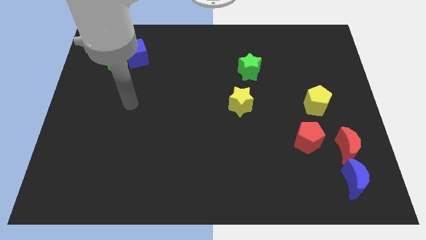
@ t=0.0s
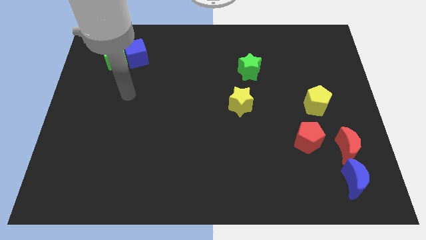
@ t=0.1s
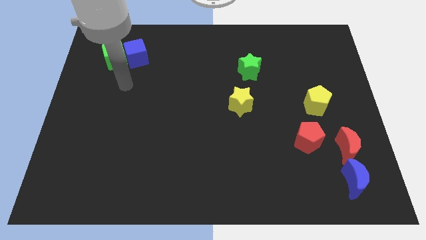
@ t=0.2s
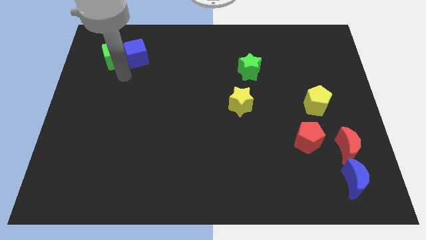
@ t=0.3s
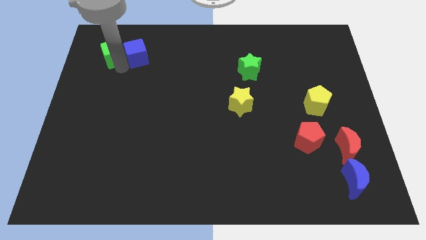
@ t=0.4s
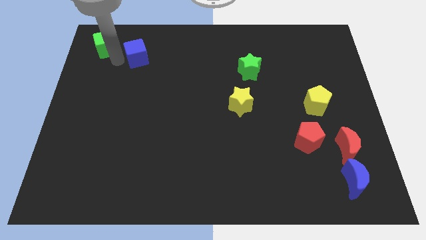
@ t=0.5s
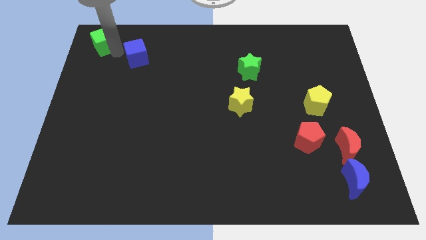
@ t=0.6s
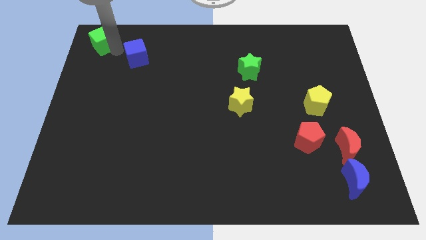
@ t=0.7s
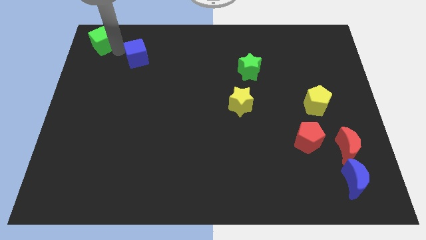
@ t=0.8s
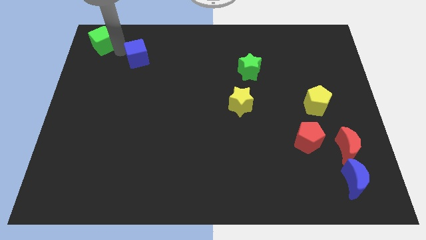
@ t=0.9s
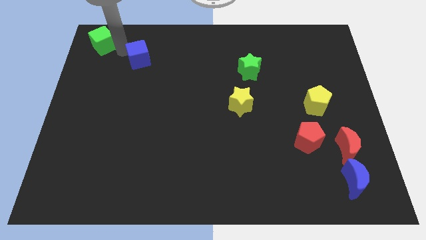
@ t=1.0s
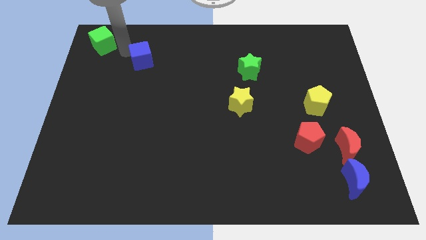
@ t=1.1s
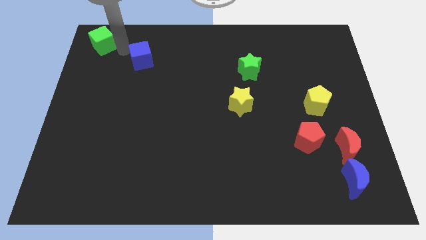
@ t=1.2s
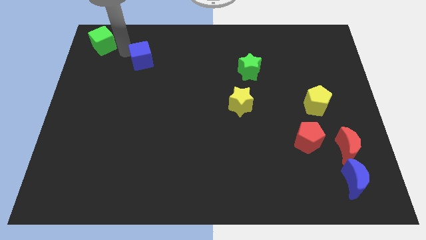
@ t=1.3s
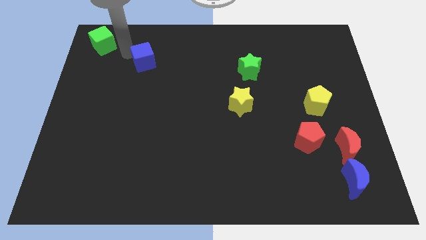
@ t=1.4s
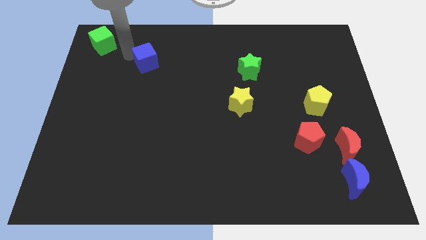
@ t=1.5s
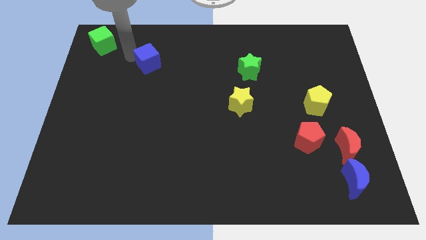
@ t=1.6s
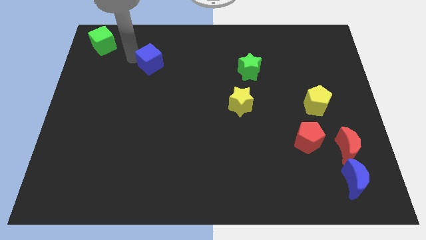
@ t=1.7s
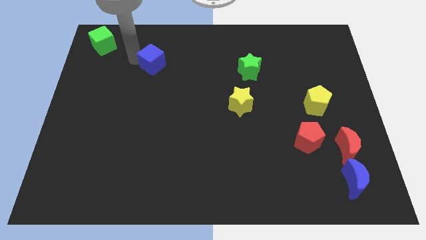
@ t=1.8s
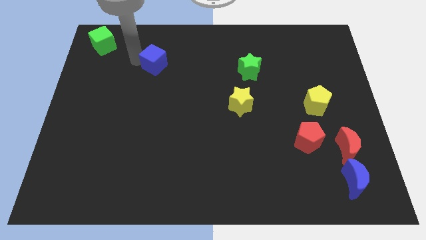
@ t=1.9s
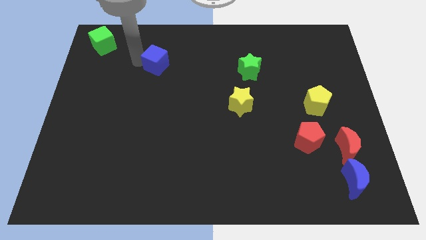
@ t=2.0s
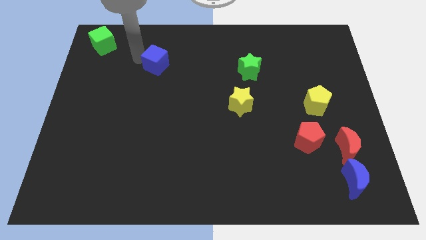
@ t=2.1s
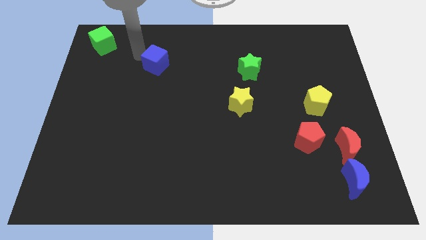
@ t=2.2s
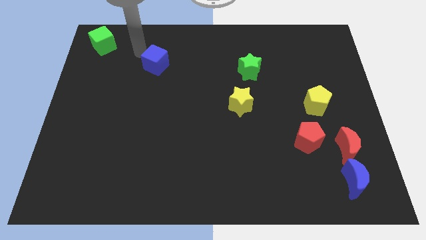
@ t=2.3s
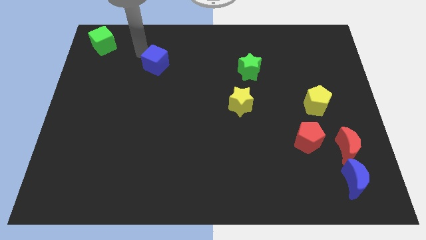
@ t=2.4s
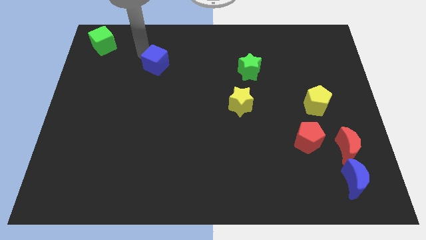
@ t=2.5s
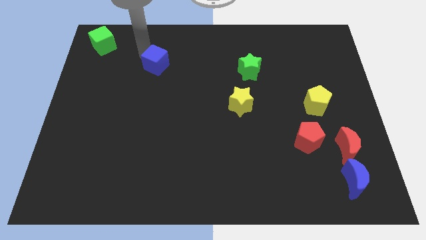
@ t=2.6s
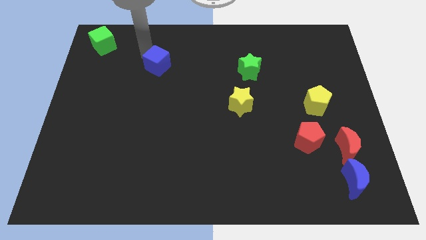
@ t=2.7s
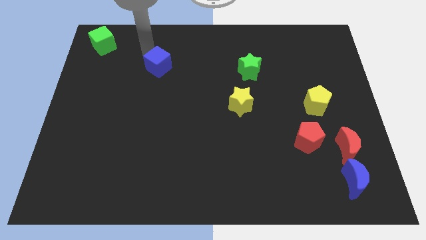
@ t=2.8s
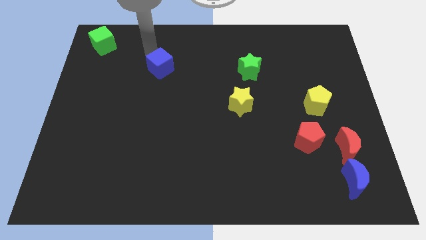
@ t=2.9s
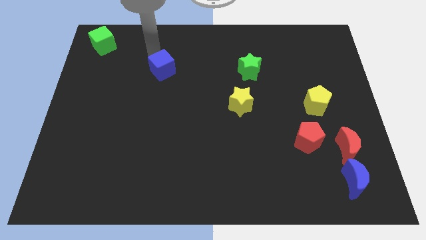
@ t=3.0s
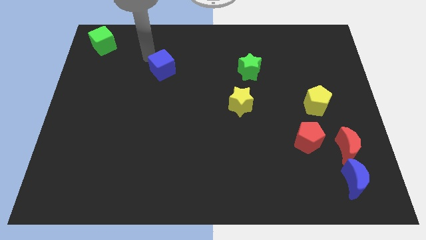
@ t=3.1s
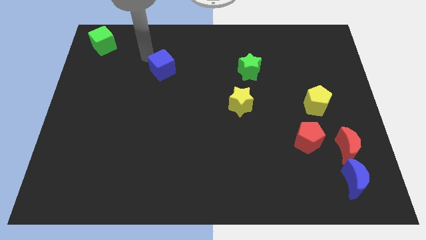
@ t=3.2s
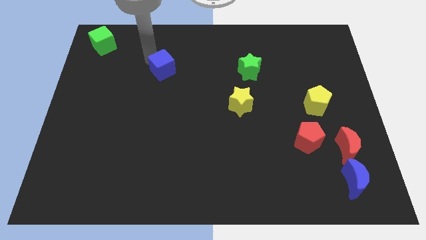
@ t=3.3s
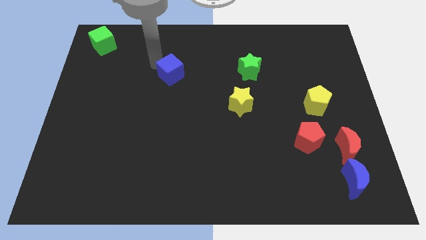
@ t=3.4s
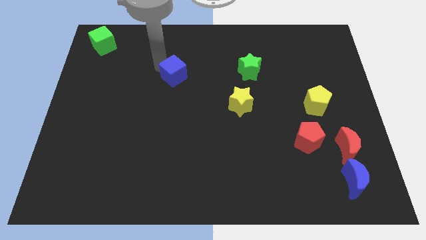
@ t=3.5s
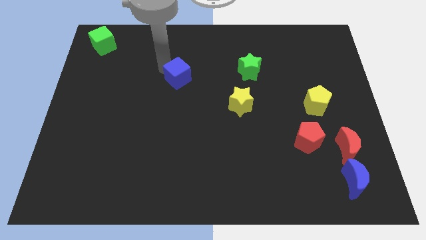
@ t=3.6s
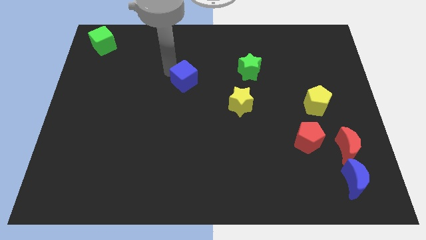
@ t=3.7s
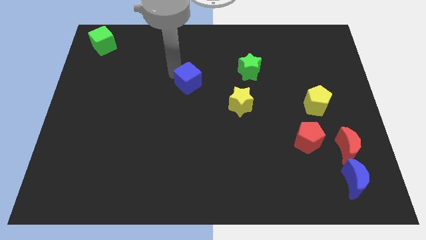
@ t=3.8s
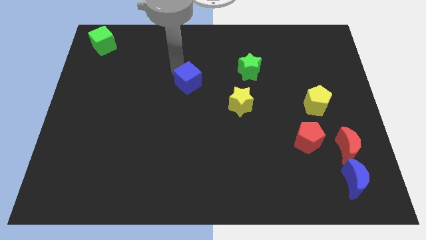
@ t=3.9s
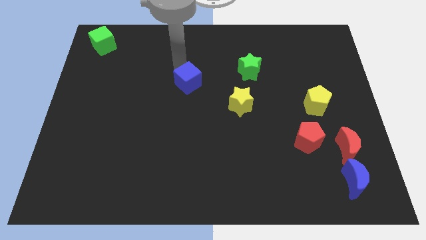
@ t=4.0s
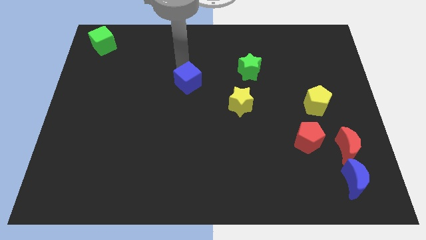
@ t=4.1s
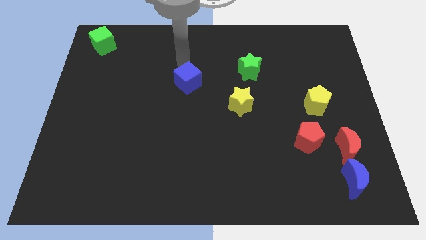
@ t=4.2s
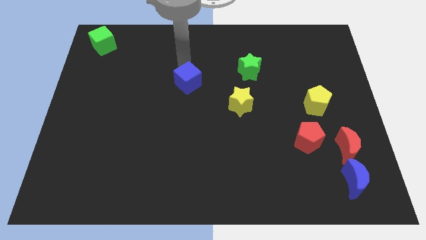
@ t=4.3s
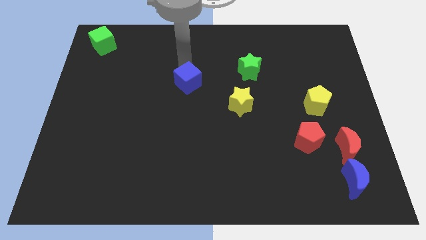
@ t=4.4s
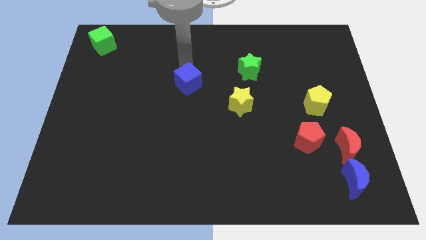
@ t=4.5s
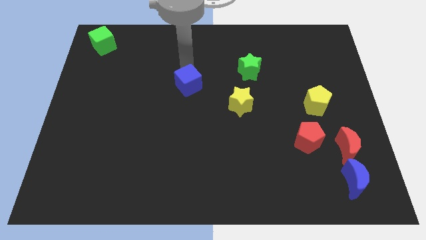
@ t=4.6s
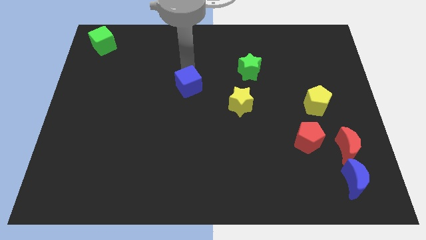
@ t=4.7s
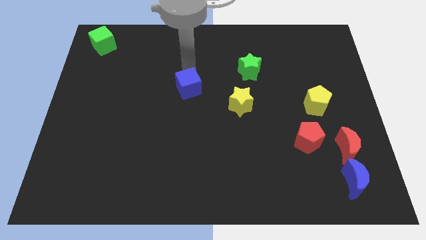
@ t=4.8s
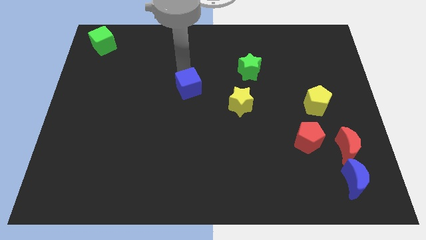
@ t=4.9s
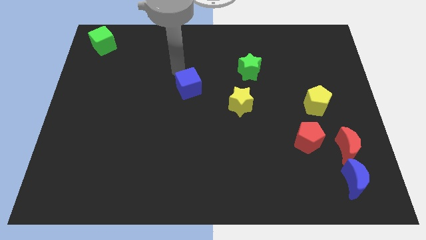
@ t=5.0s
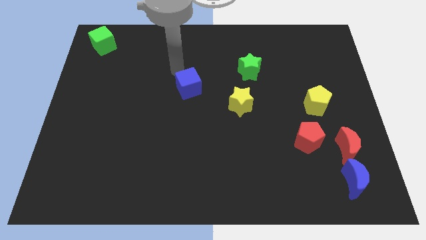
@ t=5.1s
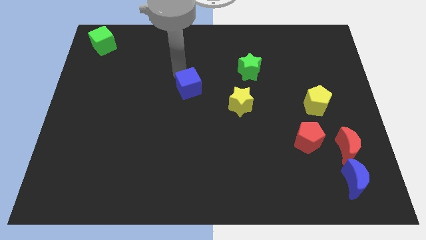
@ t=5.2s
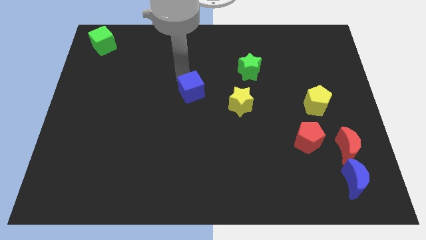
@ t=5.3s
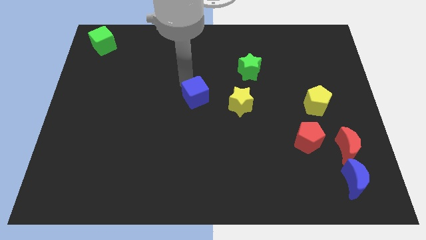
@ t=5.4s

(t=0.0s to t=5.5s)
push the blue cube diagonally downwards and to the right

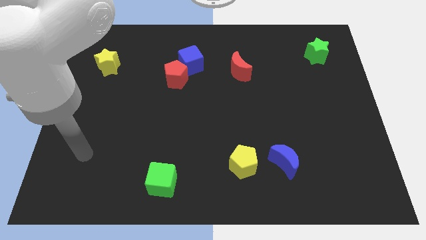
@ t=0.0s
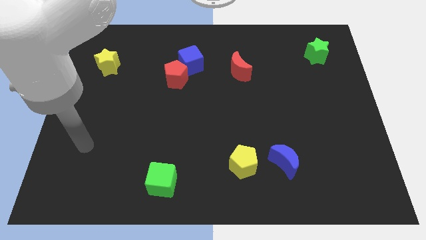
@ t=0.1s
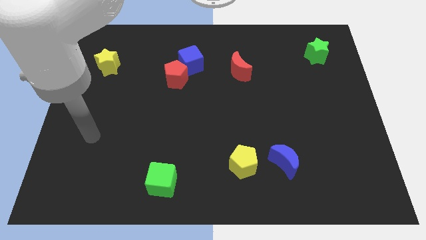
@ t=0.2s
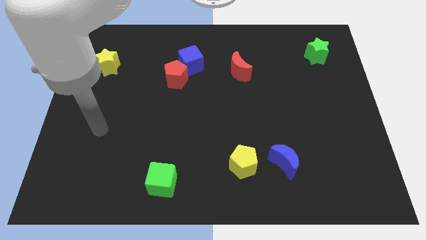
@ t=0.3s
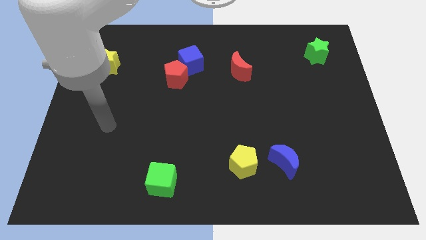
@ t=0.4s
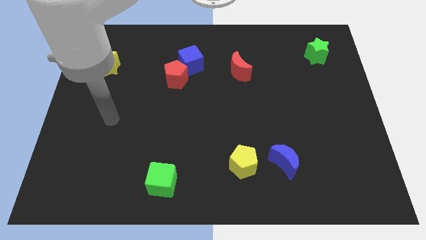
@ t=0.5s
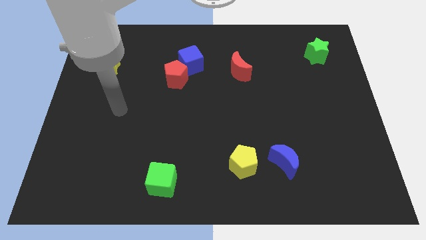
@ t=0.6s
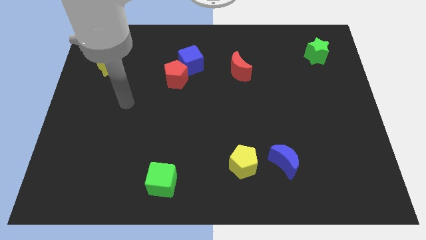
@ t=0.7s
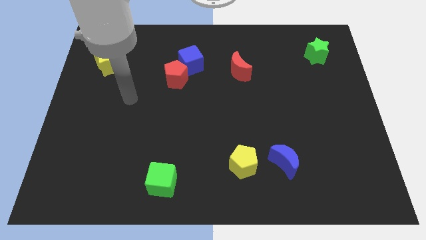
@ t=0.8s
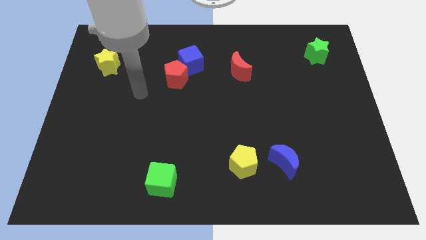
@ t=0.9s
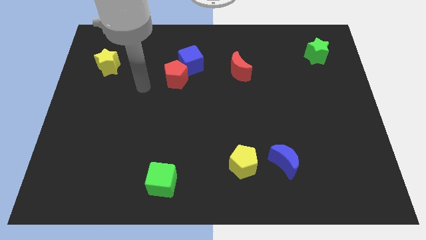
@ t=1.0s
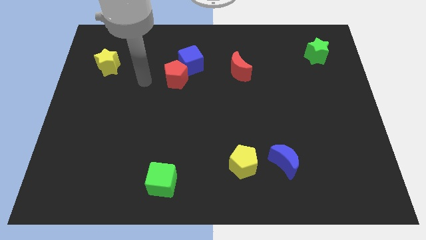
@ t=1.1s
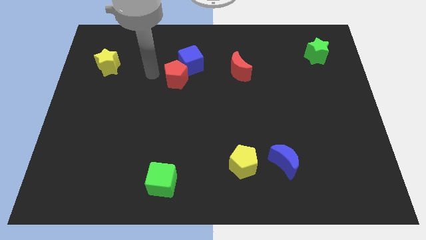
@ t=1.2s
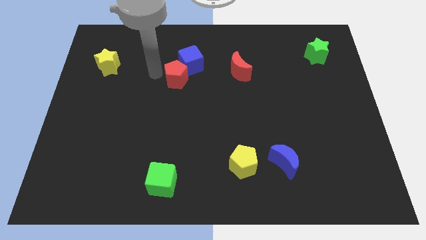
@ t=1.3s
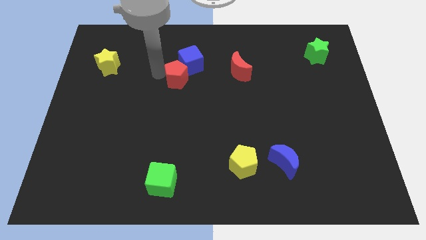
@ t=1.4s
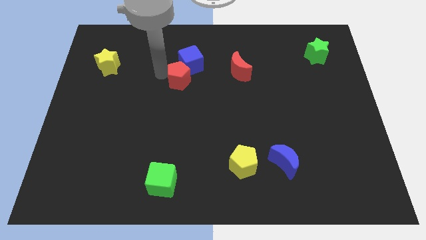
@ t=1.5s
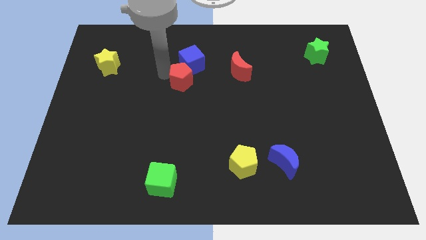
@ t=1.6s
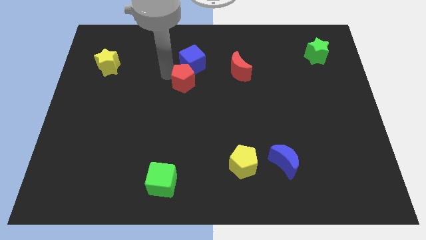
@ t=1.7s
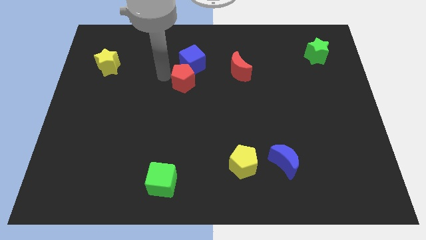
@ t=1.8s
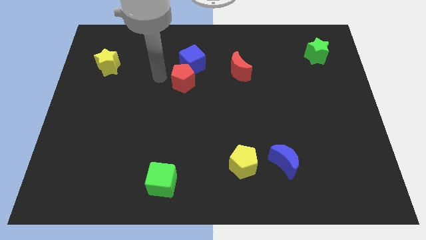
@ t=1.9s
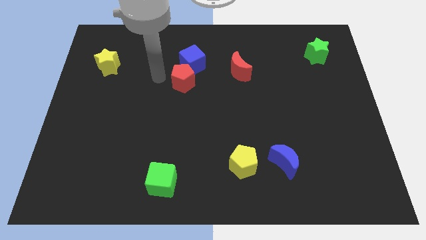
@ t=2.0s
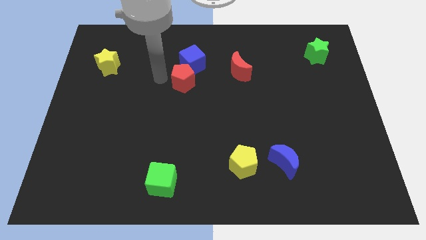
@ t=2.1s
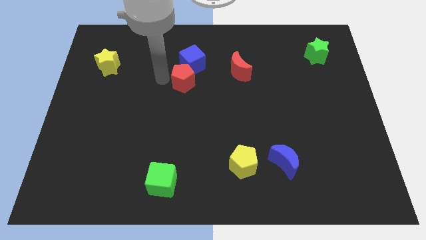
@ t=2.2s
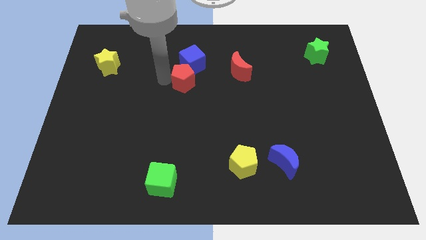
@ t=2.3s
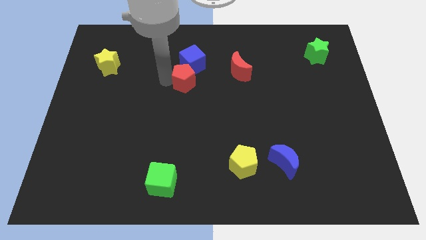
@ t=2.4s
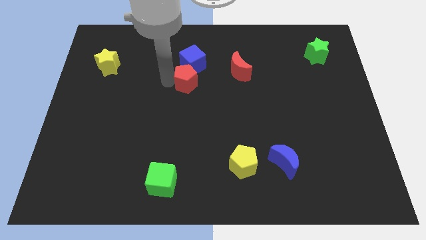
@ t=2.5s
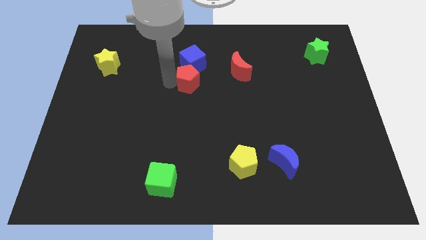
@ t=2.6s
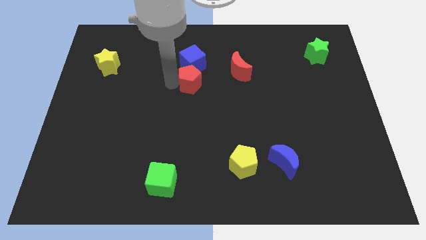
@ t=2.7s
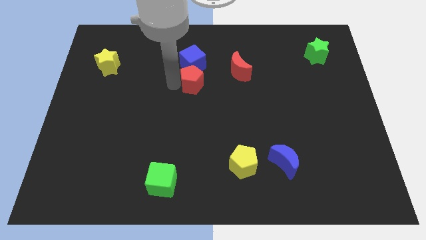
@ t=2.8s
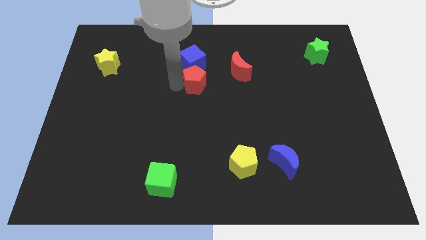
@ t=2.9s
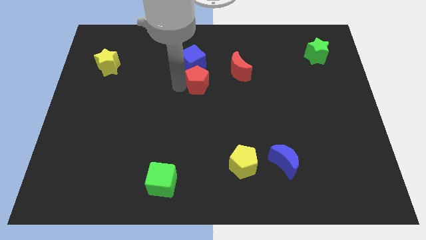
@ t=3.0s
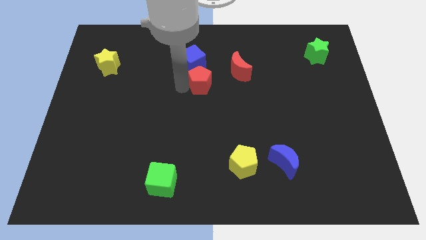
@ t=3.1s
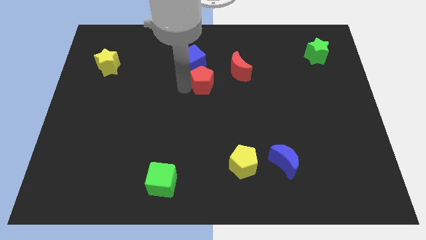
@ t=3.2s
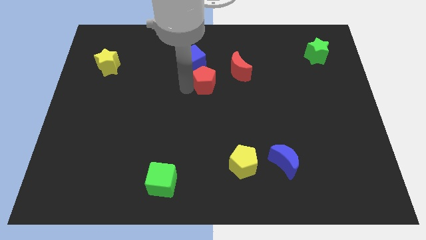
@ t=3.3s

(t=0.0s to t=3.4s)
push the red pentagon right a bit
